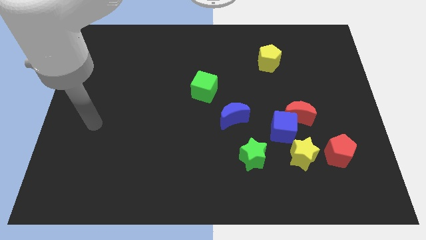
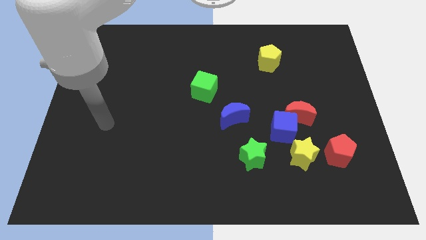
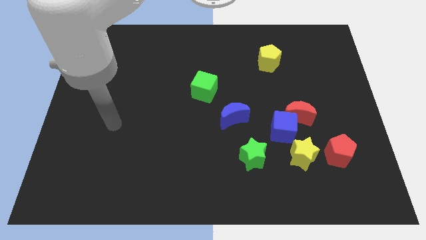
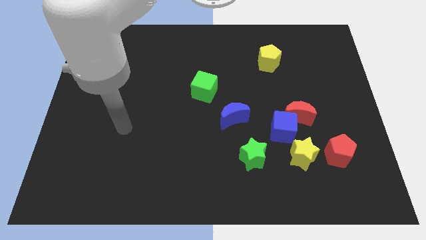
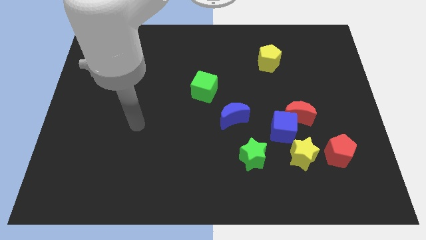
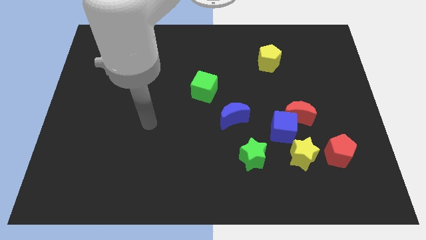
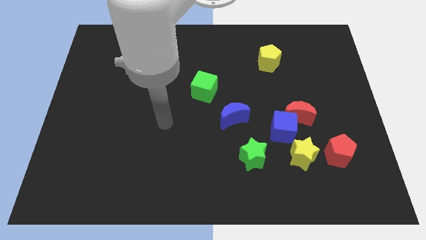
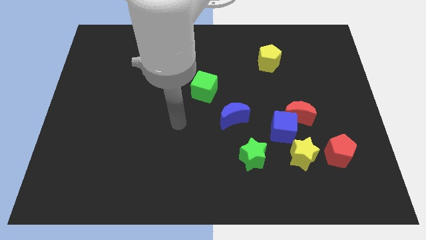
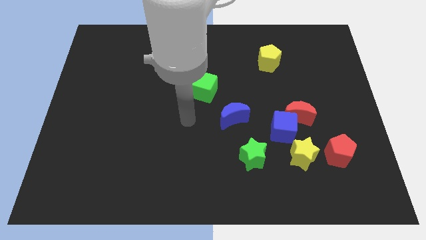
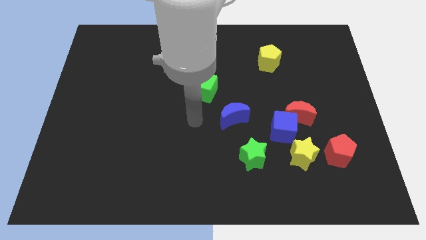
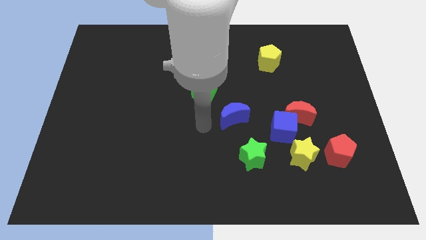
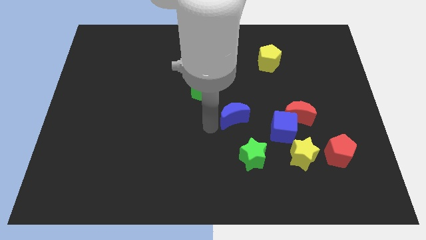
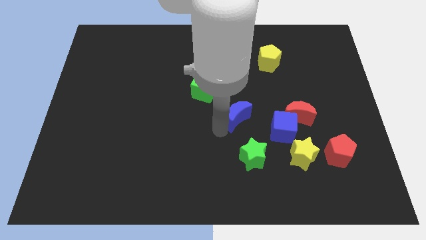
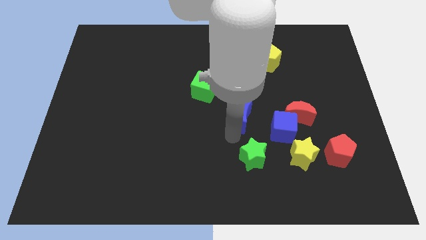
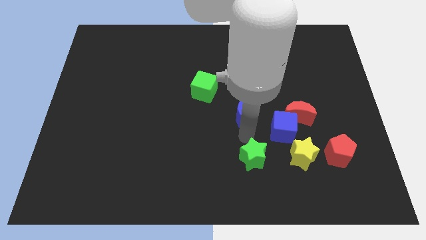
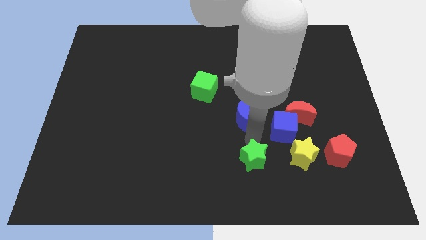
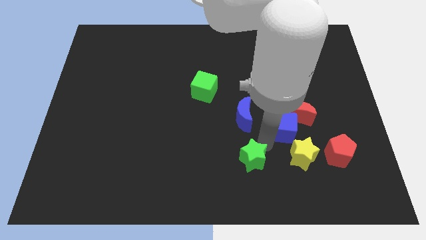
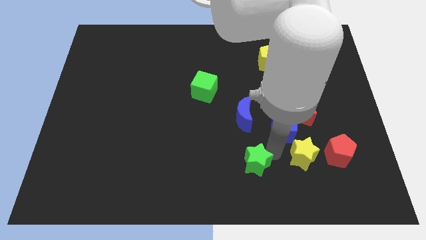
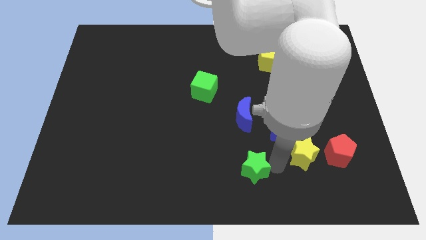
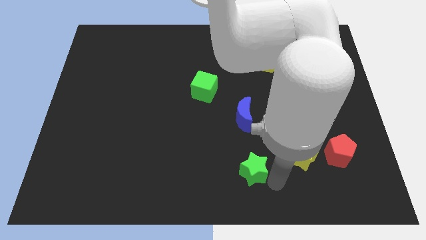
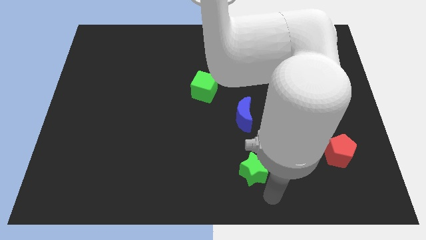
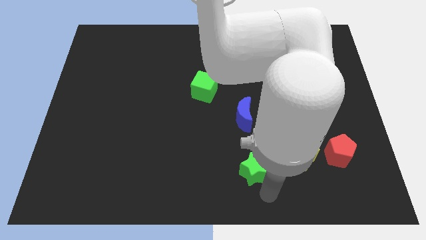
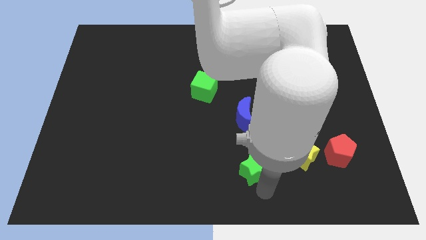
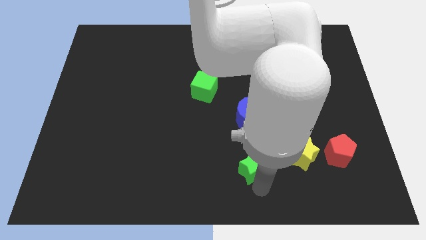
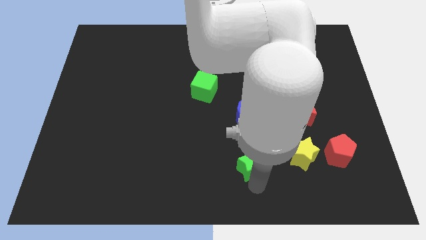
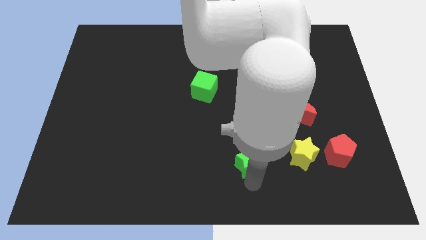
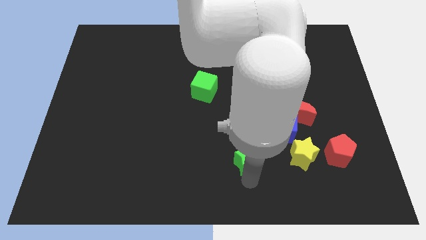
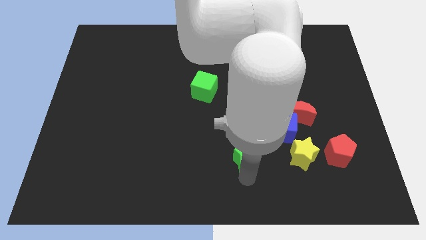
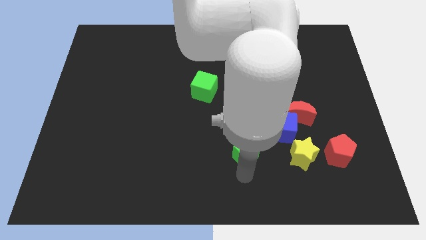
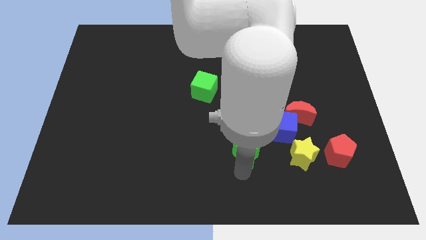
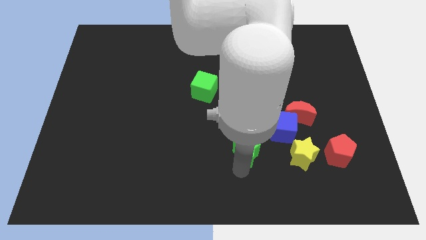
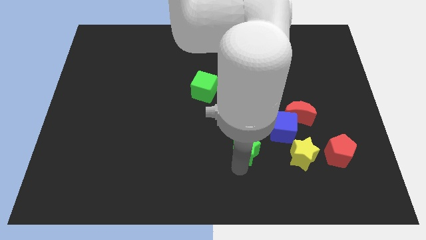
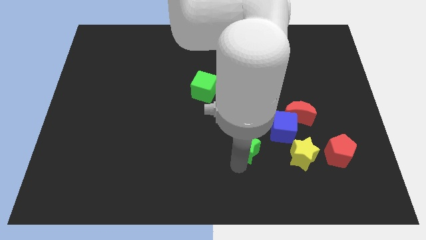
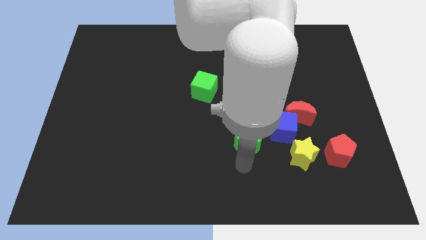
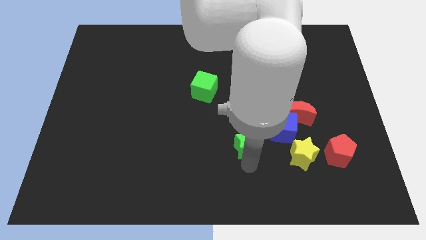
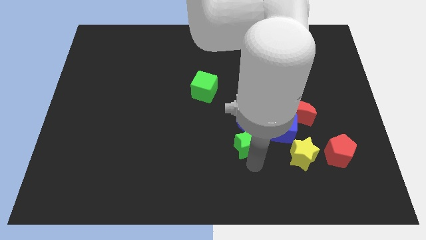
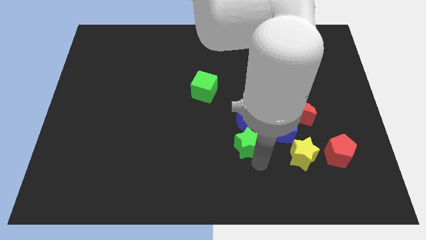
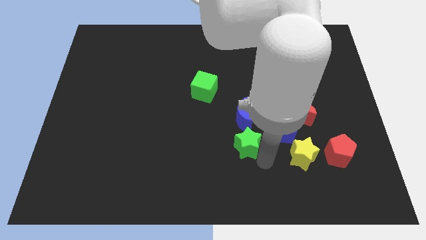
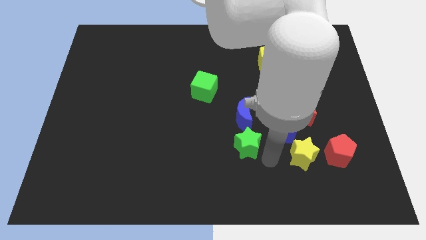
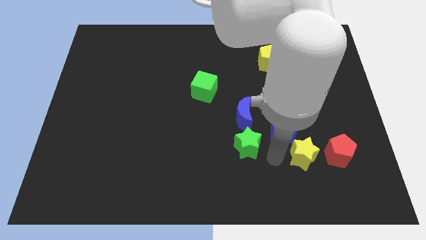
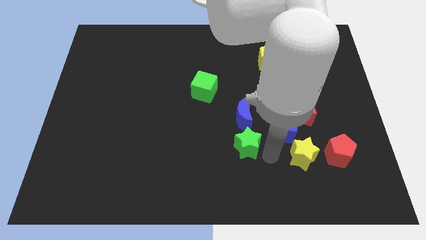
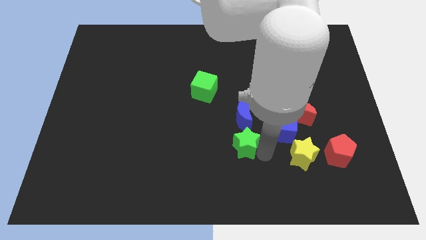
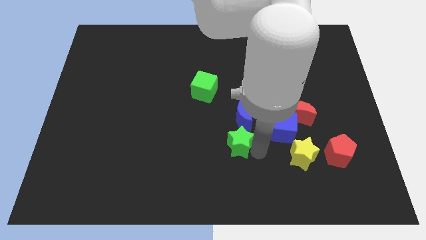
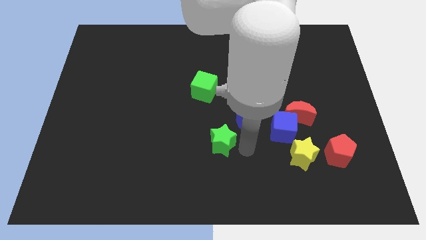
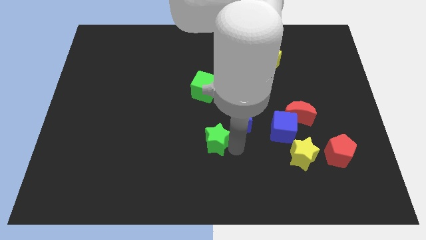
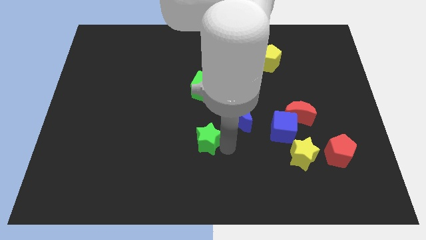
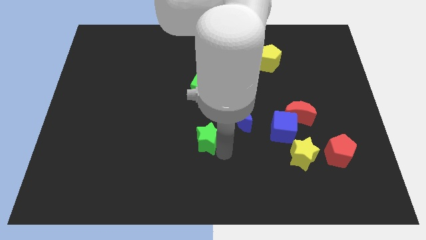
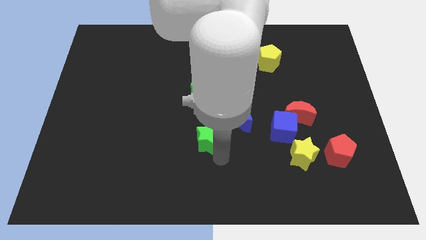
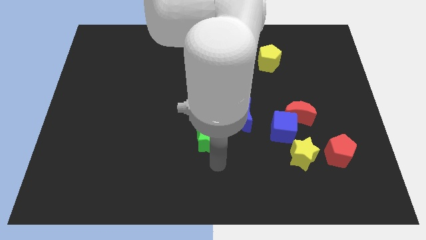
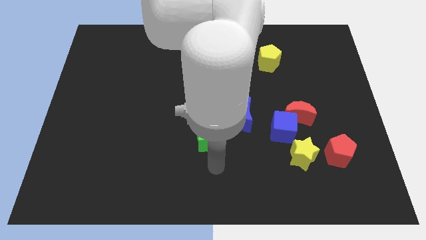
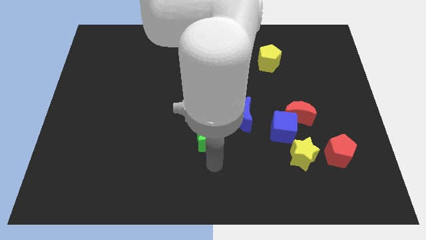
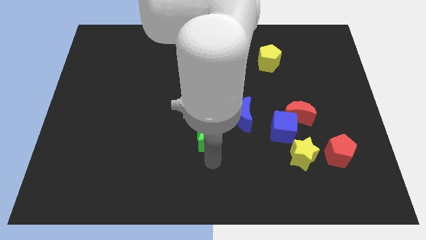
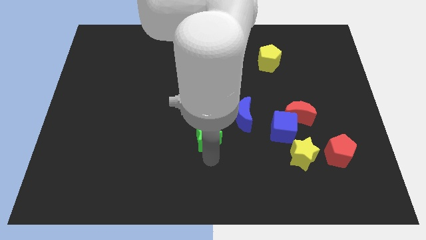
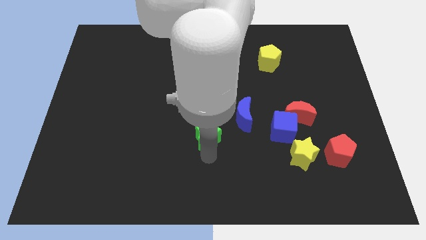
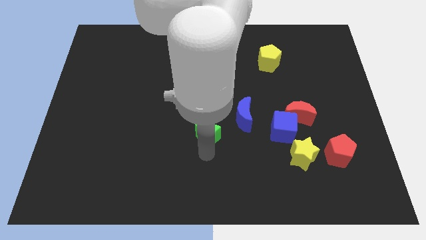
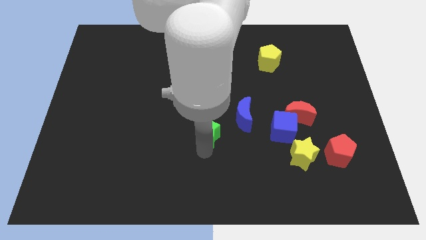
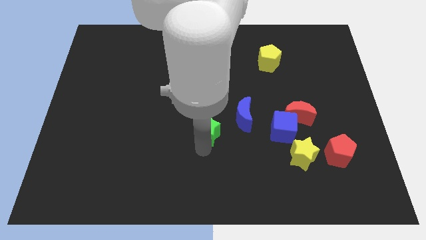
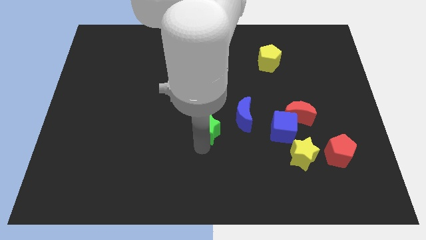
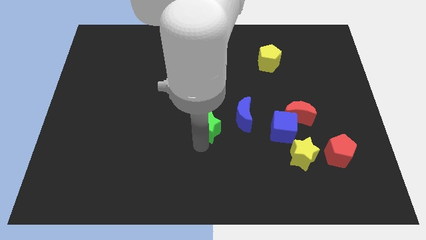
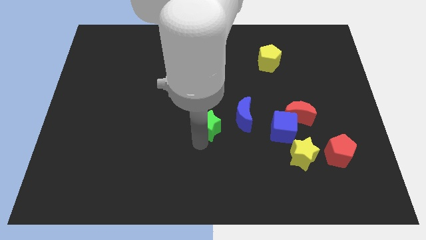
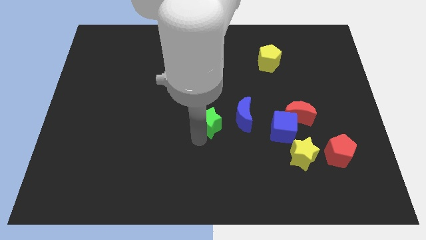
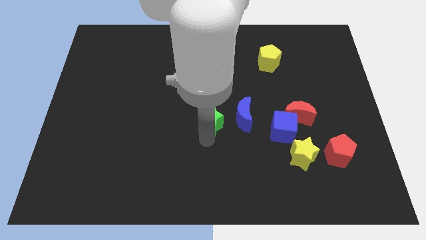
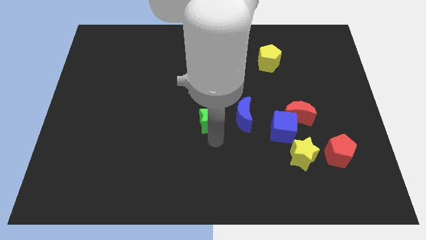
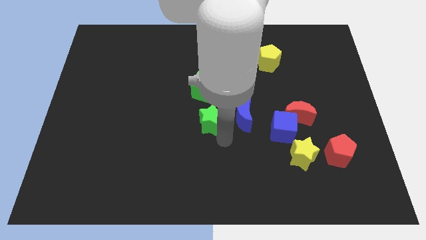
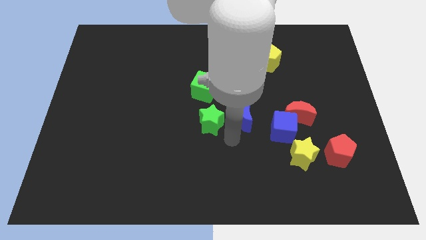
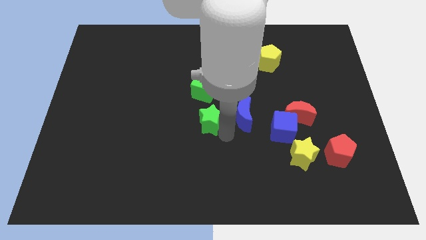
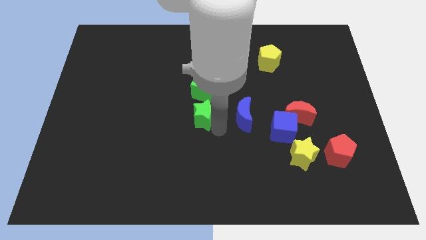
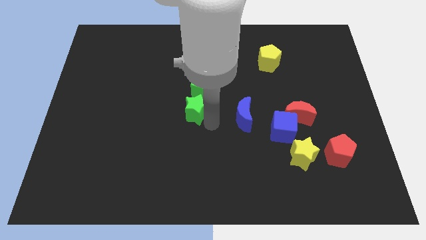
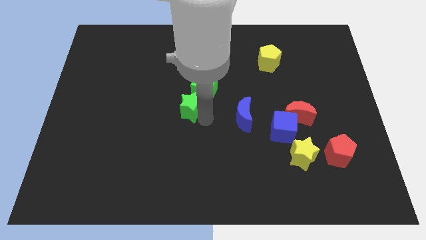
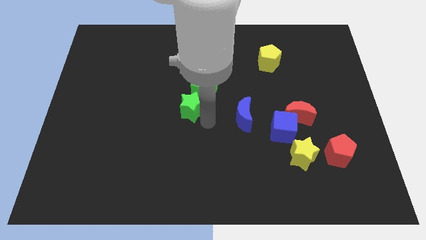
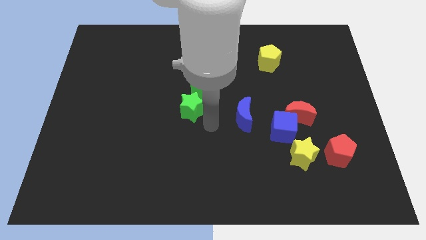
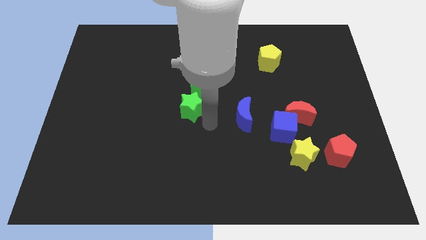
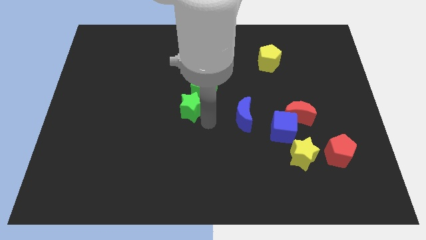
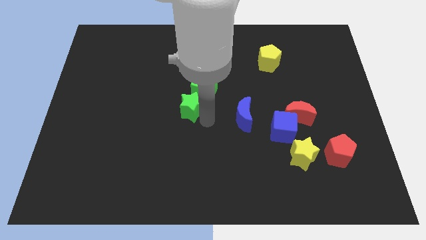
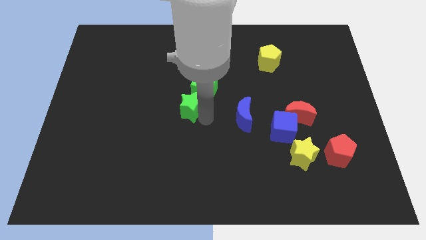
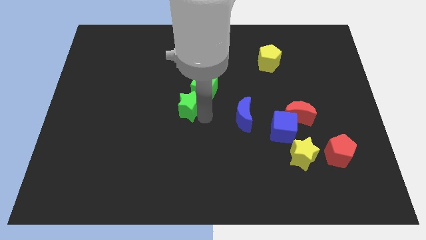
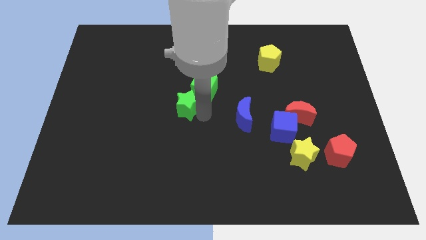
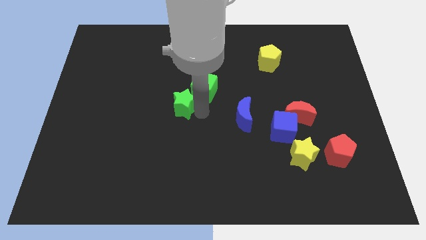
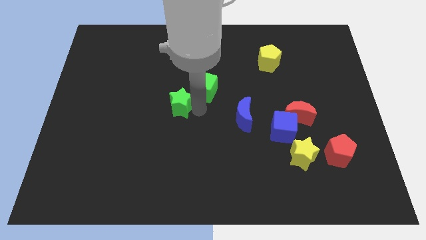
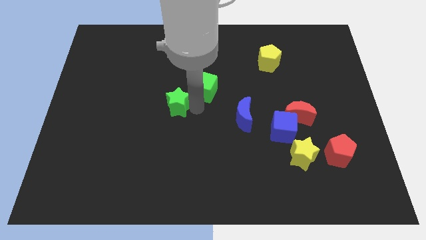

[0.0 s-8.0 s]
push the green star just left of the green cube
